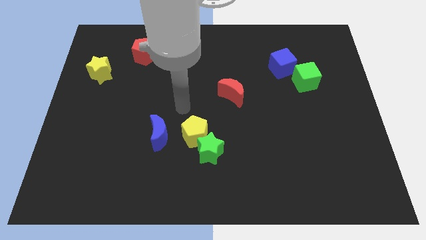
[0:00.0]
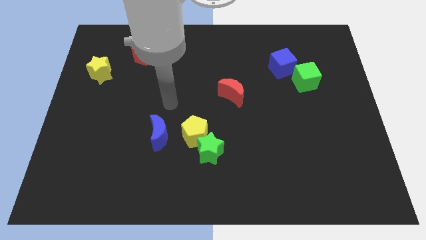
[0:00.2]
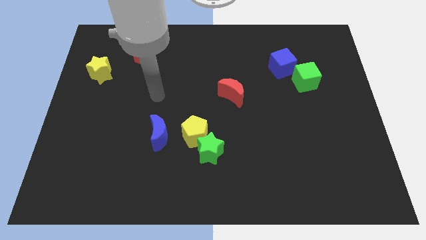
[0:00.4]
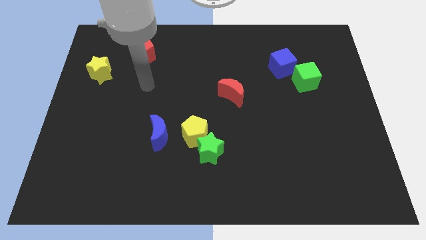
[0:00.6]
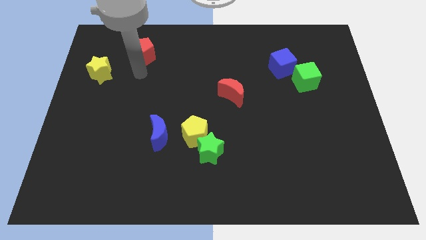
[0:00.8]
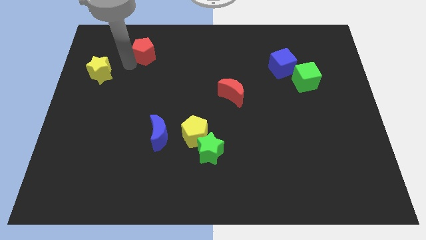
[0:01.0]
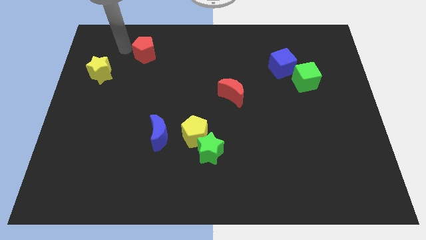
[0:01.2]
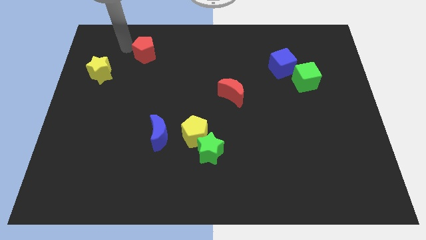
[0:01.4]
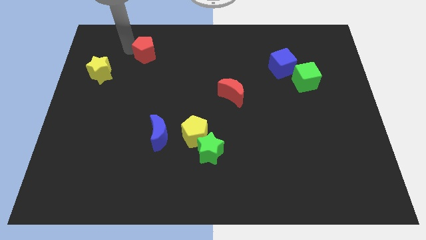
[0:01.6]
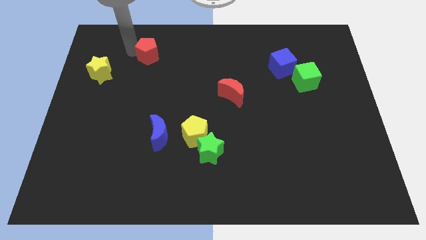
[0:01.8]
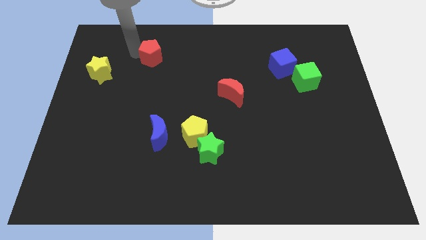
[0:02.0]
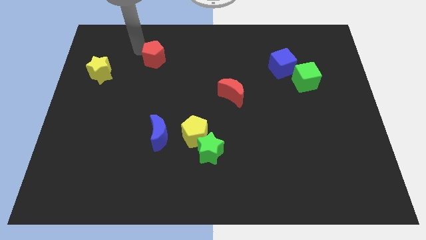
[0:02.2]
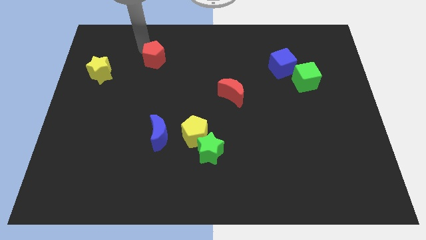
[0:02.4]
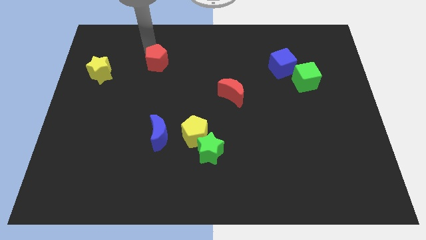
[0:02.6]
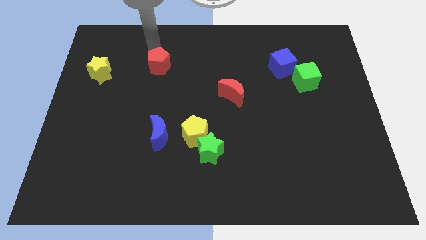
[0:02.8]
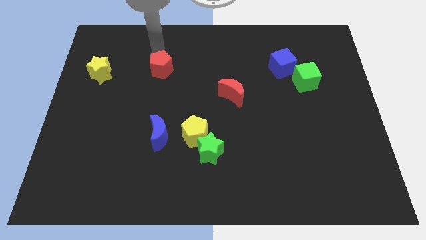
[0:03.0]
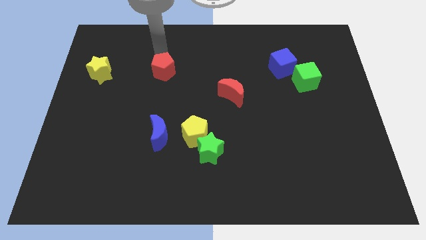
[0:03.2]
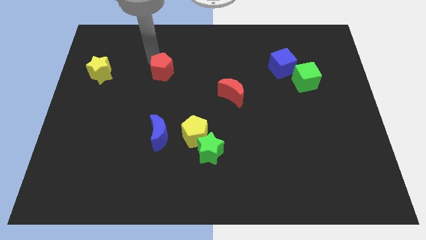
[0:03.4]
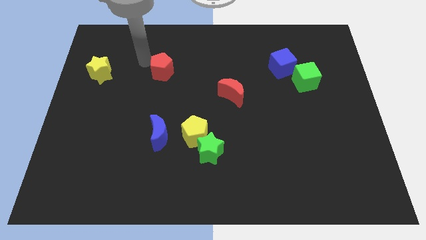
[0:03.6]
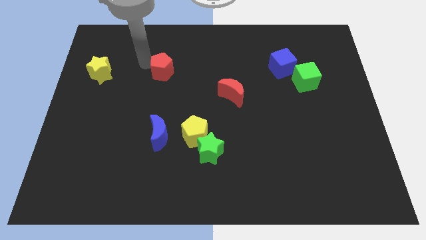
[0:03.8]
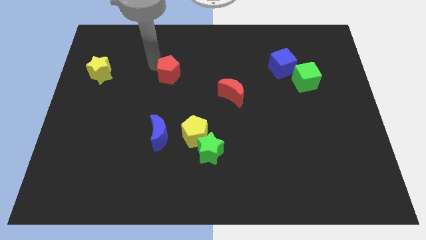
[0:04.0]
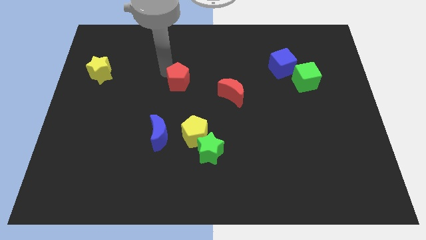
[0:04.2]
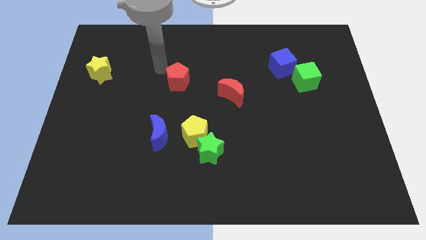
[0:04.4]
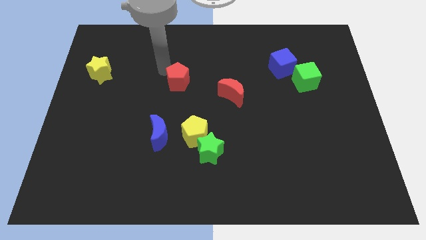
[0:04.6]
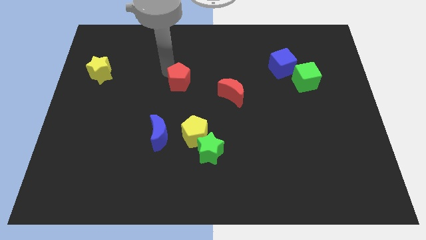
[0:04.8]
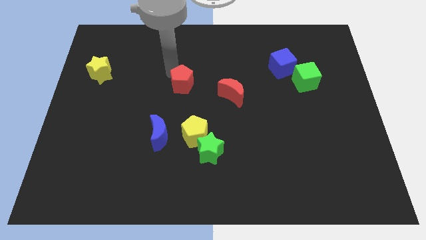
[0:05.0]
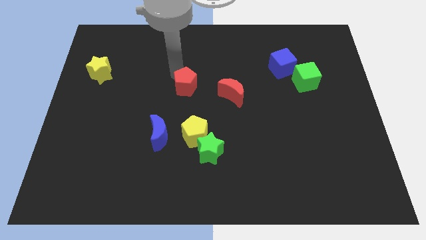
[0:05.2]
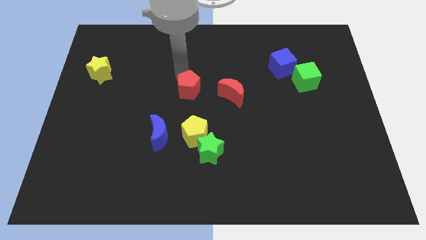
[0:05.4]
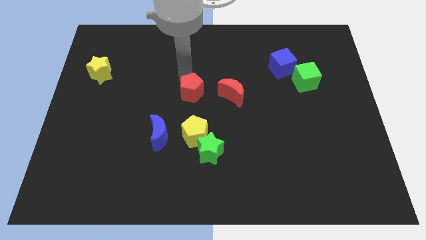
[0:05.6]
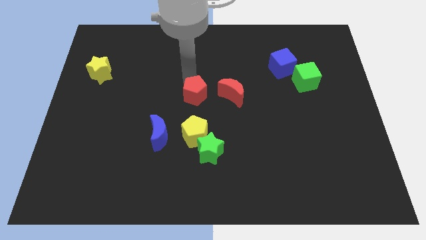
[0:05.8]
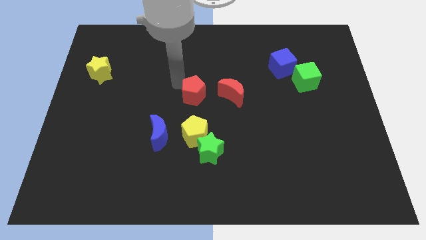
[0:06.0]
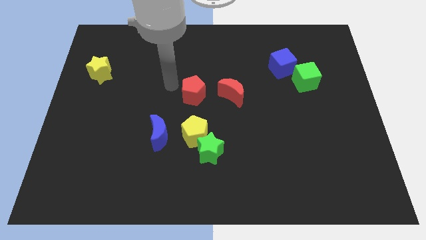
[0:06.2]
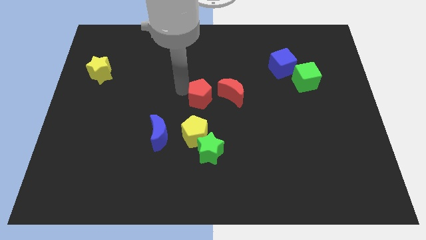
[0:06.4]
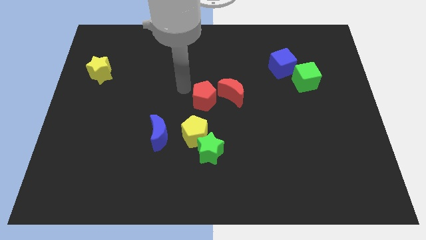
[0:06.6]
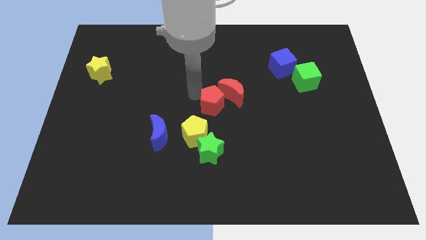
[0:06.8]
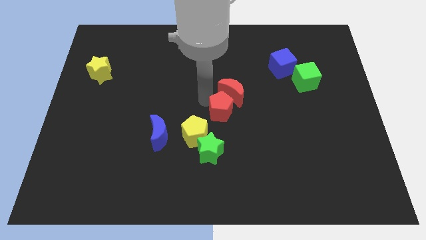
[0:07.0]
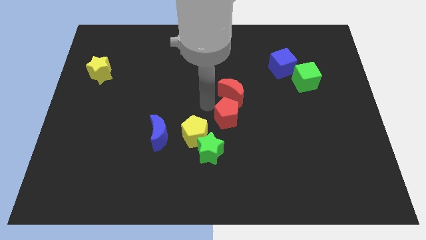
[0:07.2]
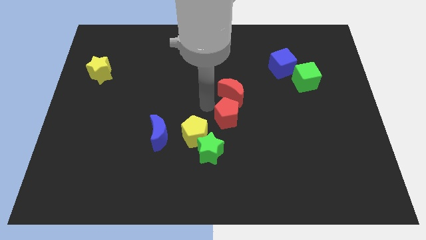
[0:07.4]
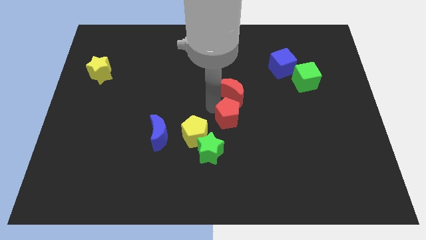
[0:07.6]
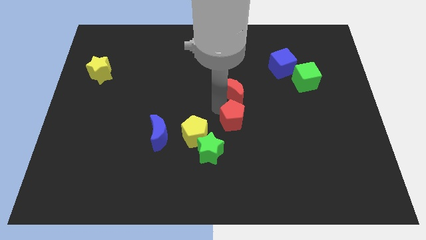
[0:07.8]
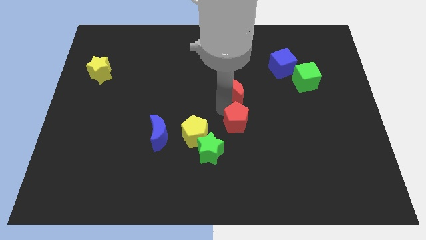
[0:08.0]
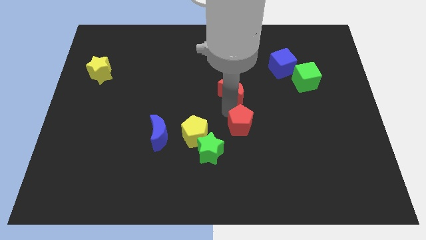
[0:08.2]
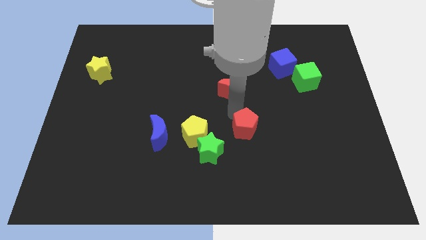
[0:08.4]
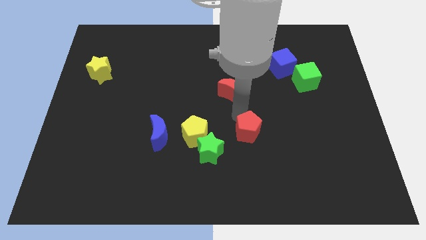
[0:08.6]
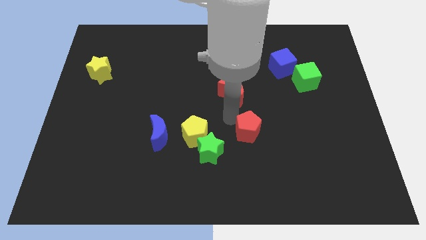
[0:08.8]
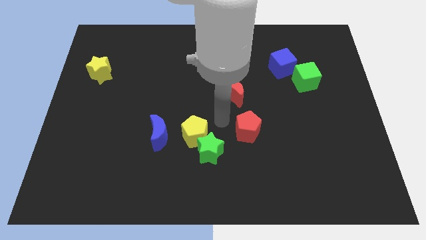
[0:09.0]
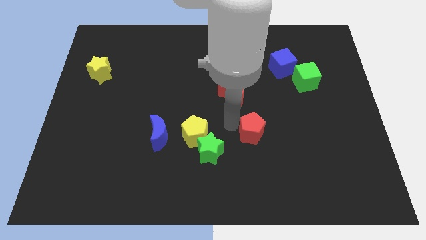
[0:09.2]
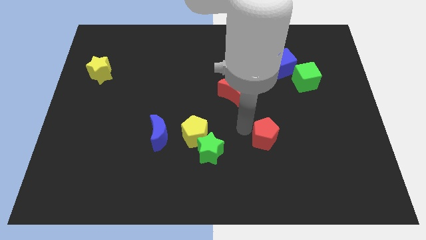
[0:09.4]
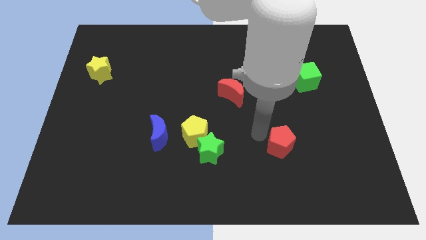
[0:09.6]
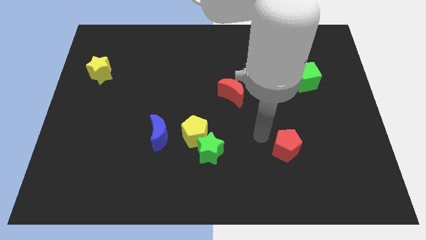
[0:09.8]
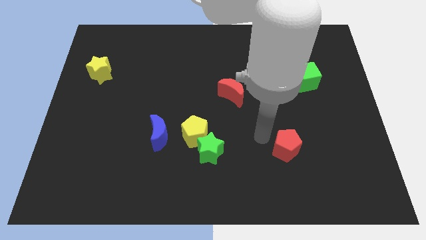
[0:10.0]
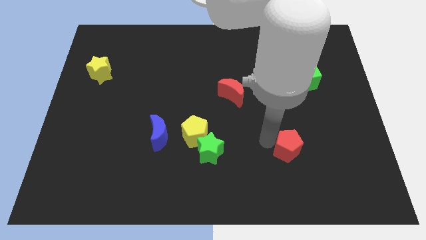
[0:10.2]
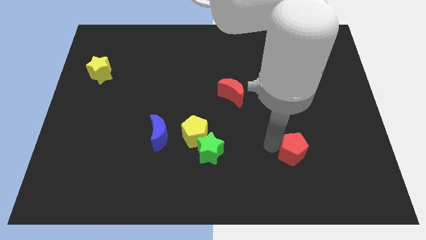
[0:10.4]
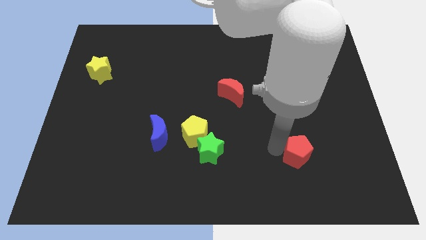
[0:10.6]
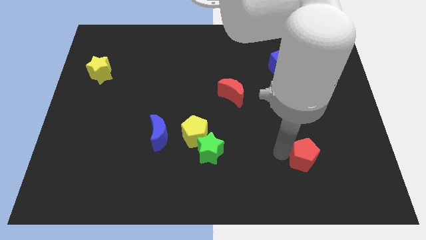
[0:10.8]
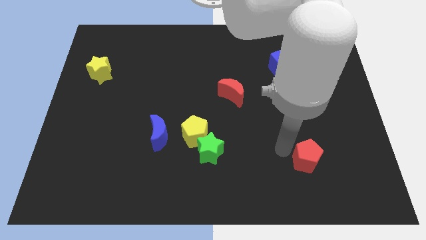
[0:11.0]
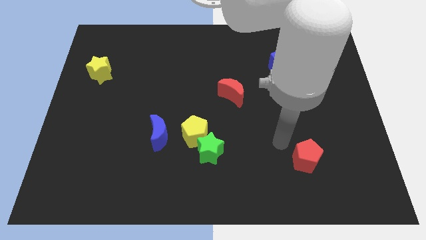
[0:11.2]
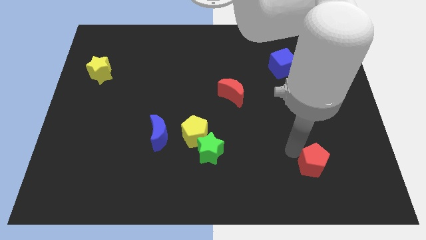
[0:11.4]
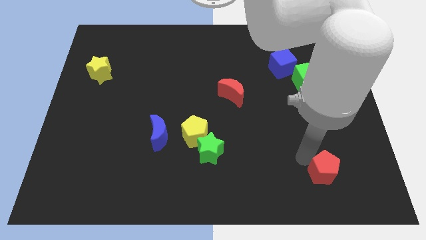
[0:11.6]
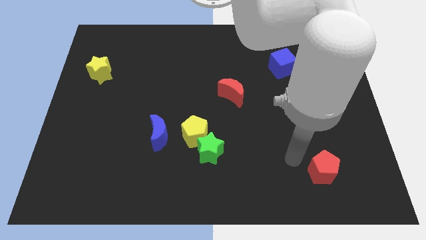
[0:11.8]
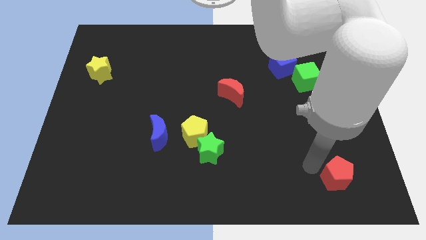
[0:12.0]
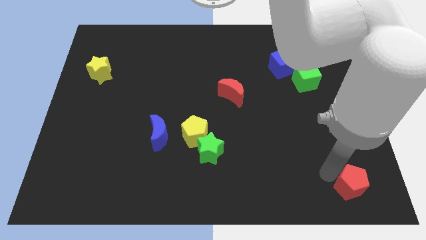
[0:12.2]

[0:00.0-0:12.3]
push the red pentagon to the lower right corner
